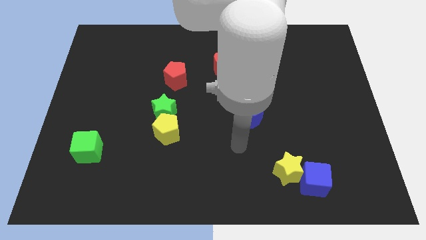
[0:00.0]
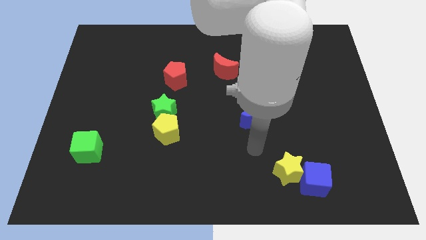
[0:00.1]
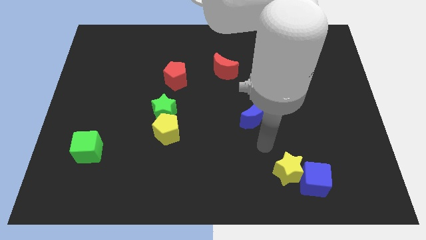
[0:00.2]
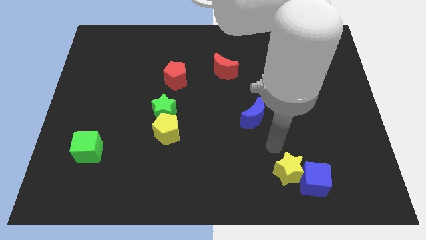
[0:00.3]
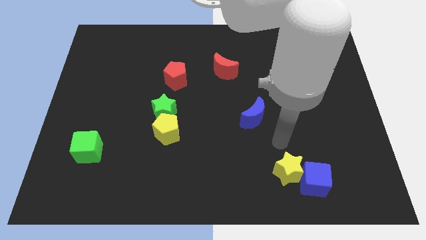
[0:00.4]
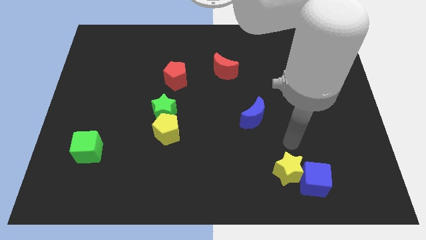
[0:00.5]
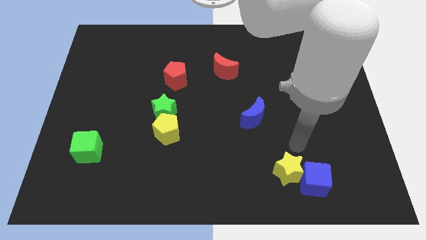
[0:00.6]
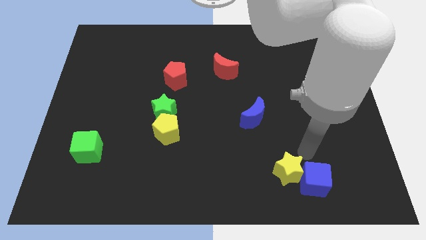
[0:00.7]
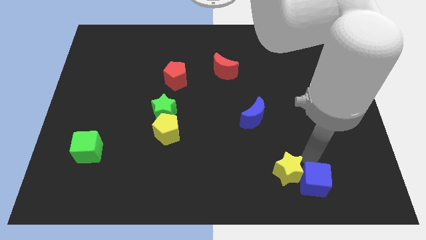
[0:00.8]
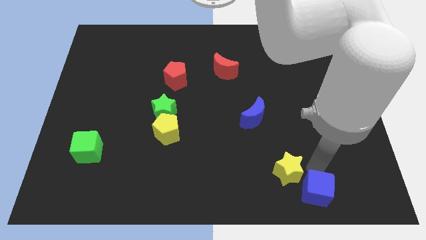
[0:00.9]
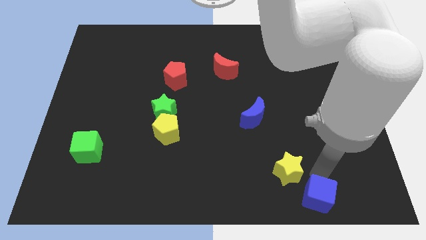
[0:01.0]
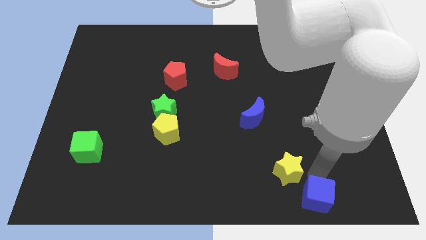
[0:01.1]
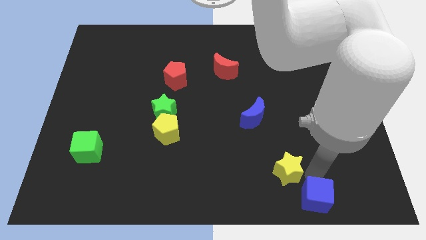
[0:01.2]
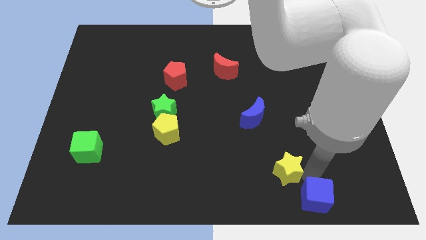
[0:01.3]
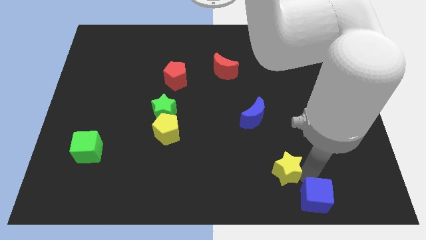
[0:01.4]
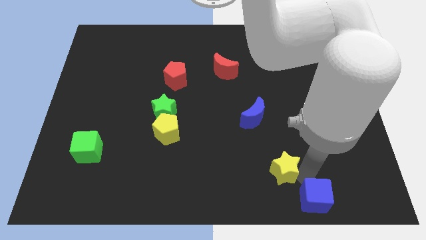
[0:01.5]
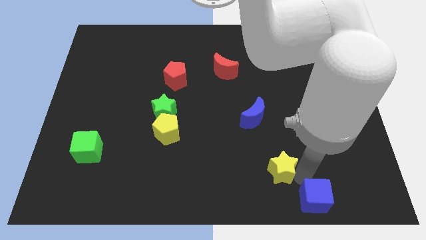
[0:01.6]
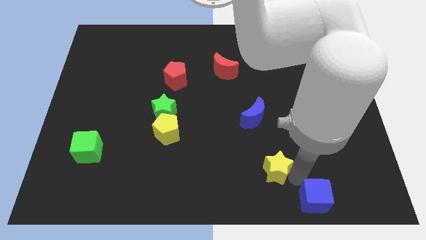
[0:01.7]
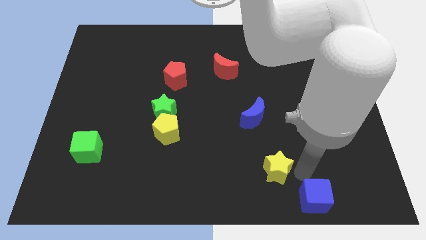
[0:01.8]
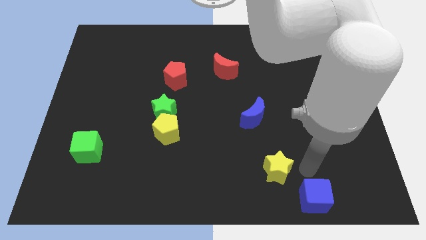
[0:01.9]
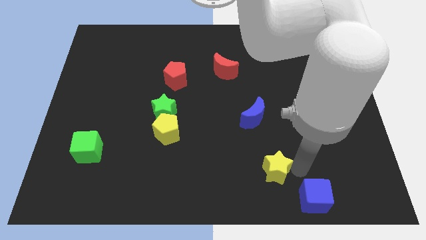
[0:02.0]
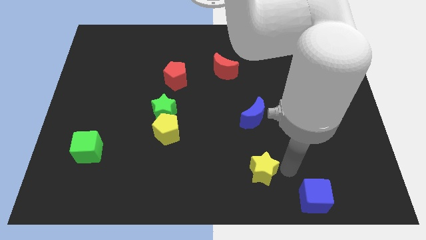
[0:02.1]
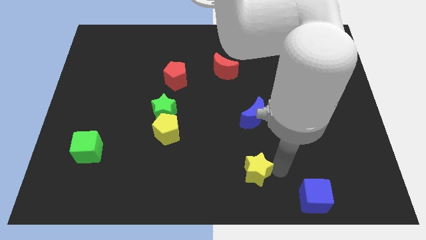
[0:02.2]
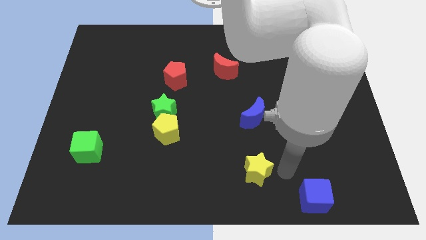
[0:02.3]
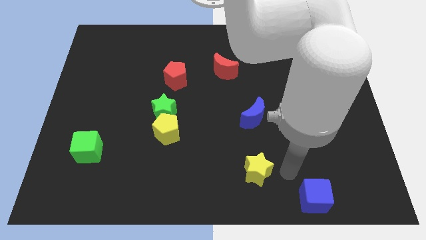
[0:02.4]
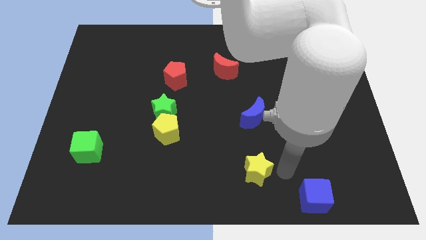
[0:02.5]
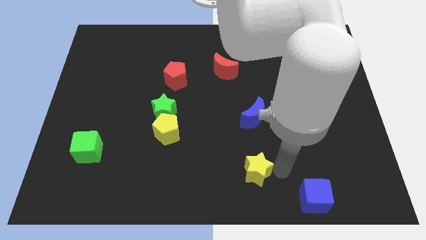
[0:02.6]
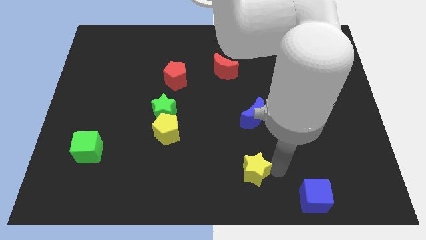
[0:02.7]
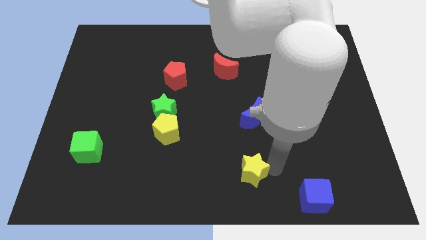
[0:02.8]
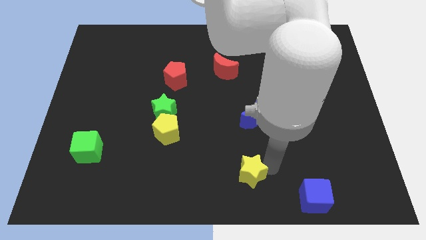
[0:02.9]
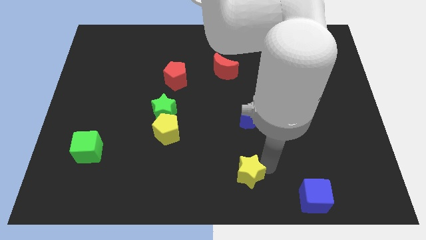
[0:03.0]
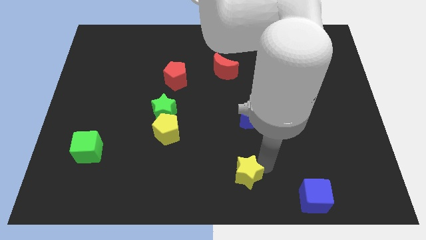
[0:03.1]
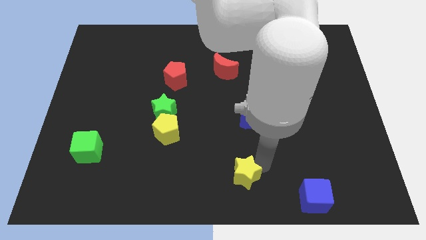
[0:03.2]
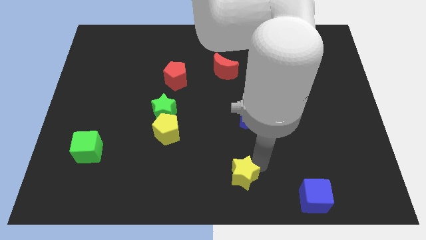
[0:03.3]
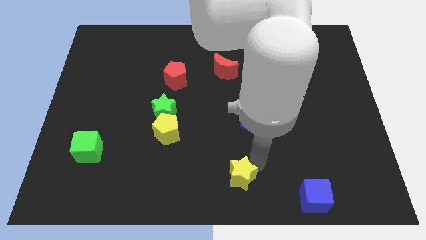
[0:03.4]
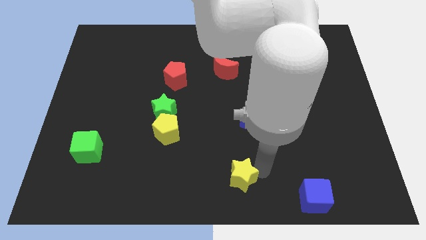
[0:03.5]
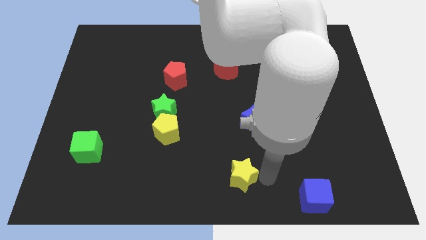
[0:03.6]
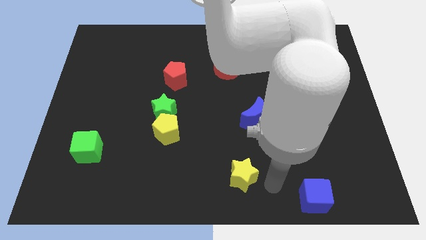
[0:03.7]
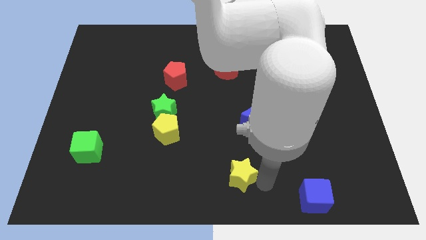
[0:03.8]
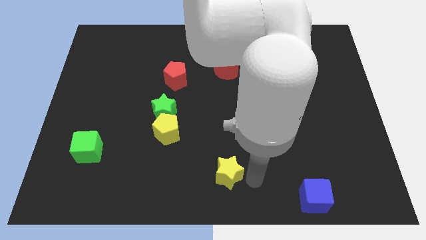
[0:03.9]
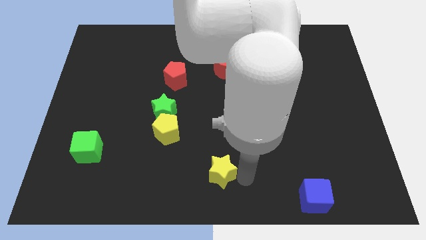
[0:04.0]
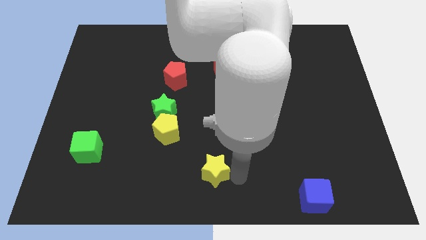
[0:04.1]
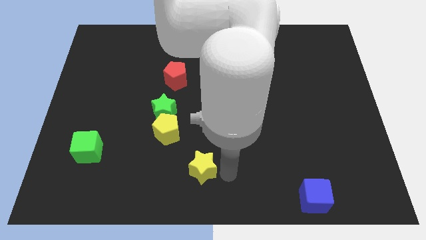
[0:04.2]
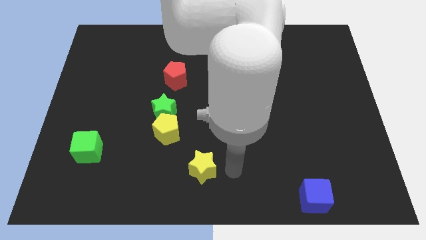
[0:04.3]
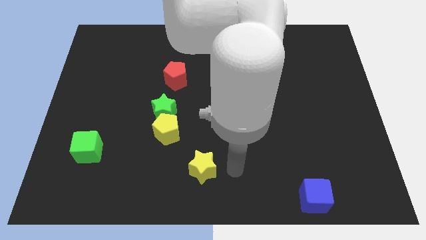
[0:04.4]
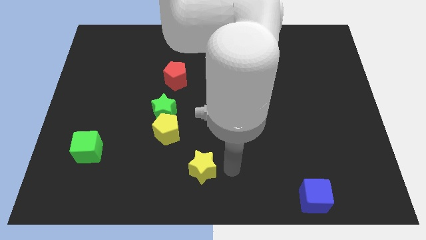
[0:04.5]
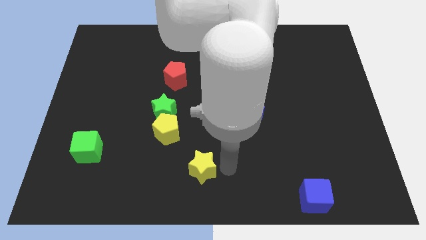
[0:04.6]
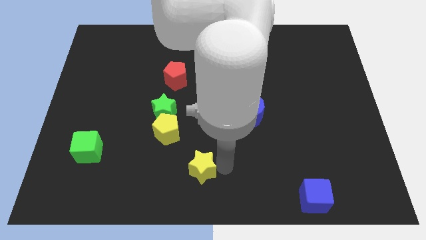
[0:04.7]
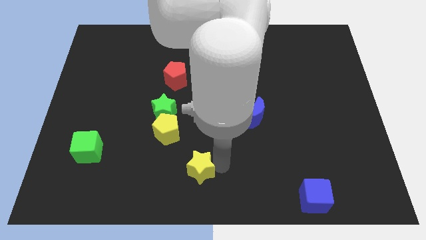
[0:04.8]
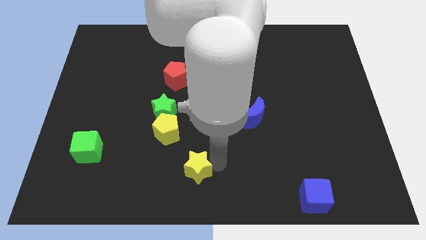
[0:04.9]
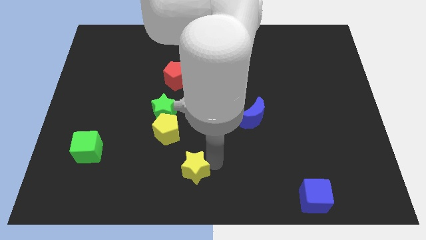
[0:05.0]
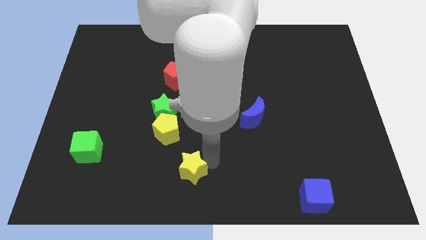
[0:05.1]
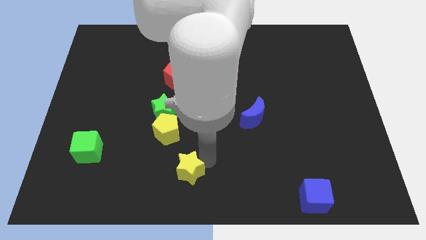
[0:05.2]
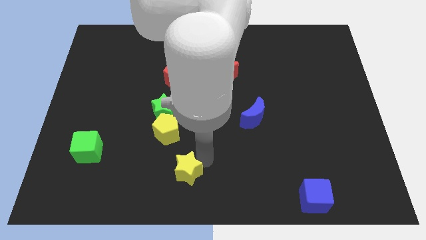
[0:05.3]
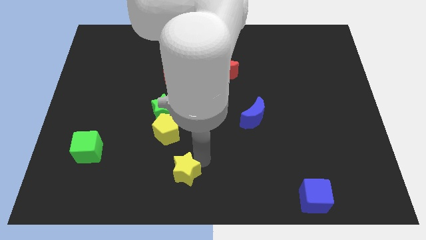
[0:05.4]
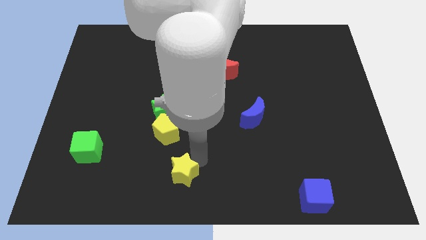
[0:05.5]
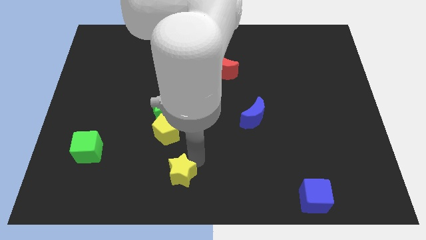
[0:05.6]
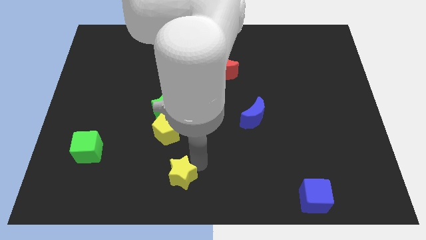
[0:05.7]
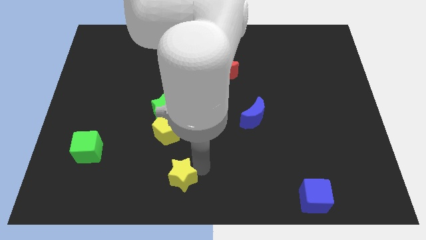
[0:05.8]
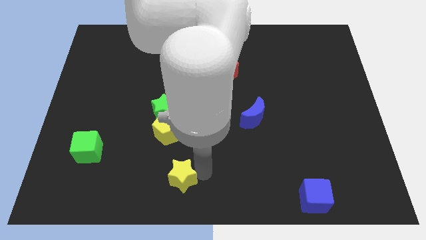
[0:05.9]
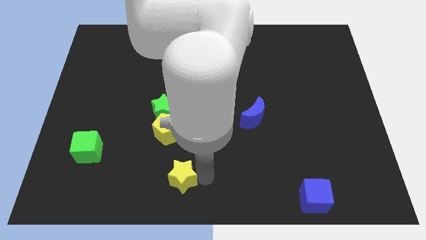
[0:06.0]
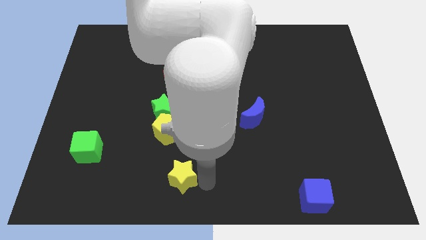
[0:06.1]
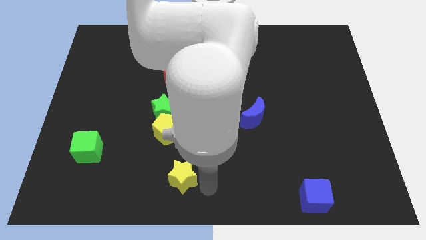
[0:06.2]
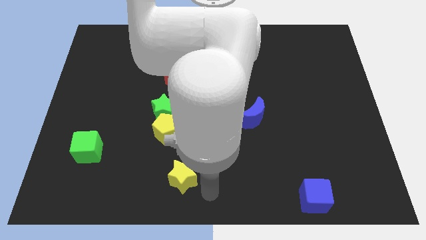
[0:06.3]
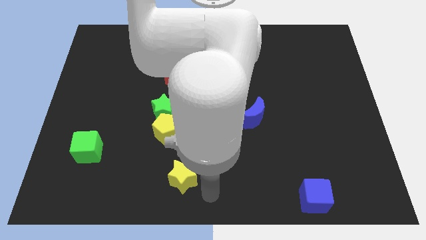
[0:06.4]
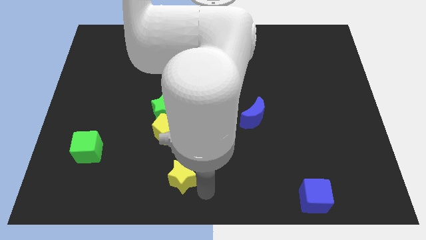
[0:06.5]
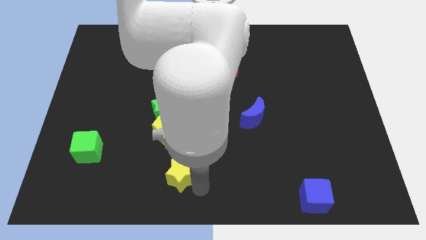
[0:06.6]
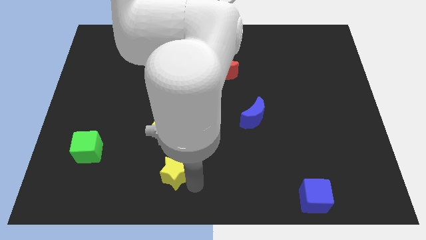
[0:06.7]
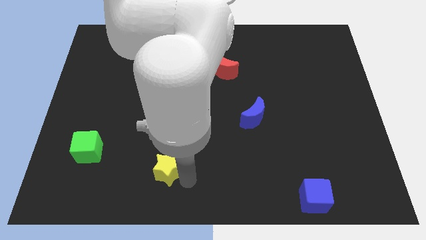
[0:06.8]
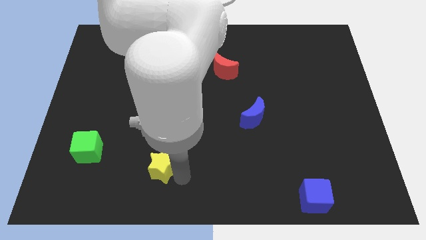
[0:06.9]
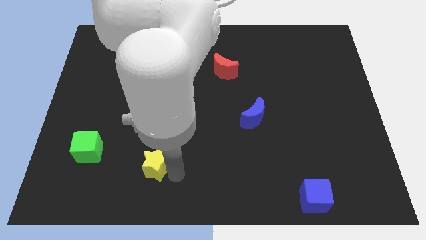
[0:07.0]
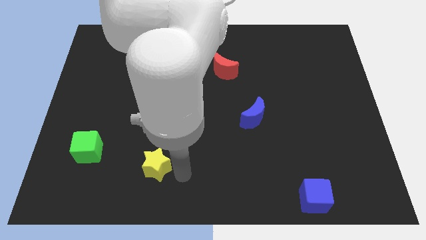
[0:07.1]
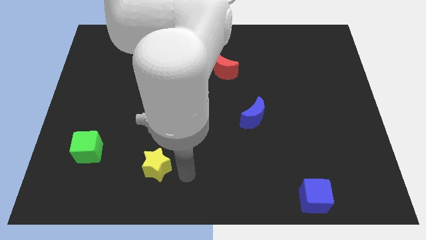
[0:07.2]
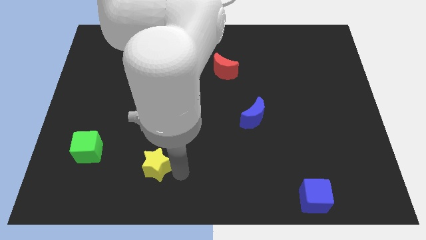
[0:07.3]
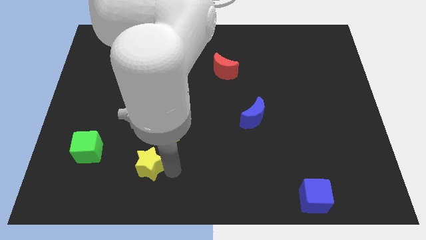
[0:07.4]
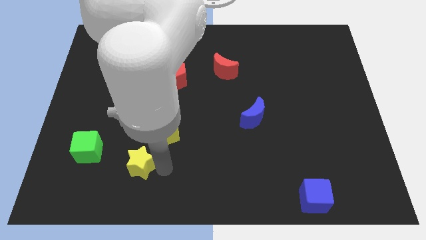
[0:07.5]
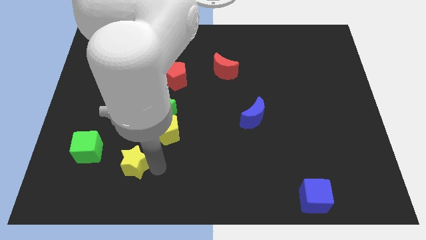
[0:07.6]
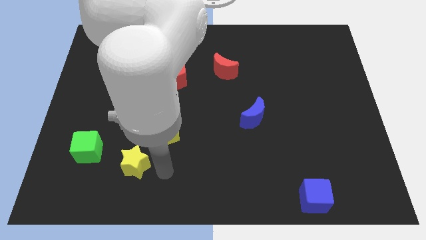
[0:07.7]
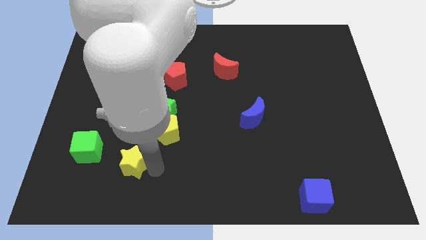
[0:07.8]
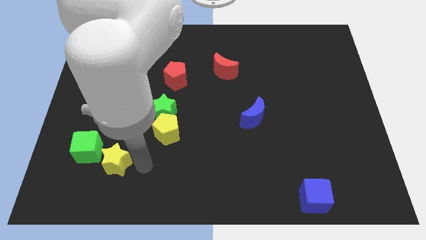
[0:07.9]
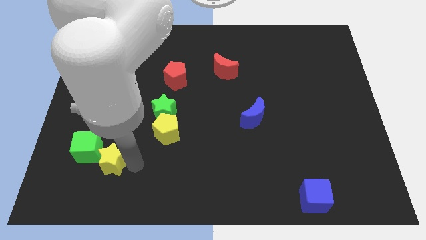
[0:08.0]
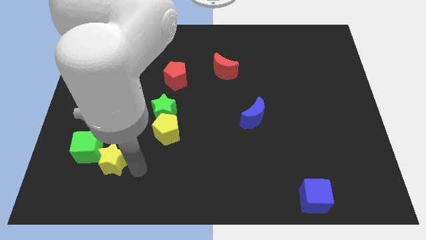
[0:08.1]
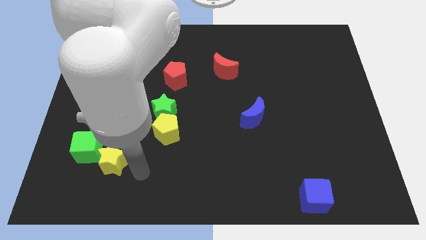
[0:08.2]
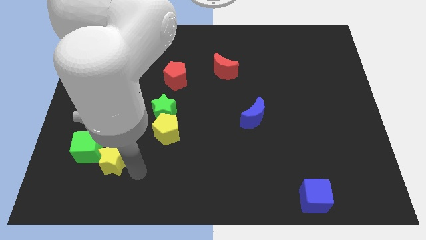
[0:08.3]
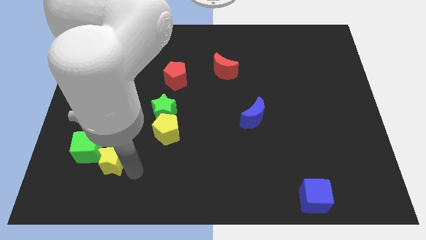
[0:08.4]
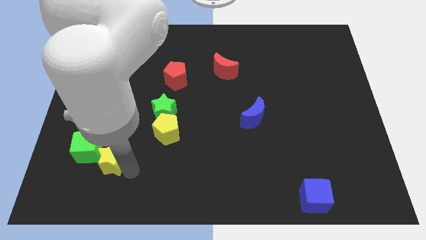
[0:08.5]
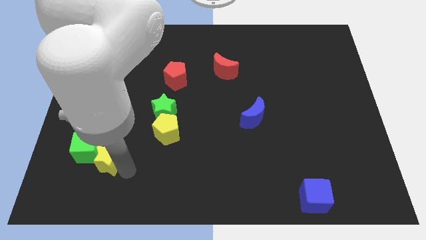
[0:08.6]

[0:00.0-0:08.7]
put the yellow star to the green cube
